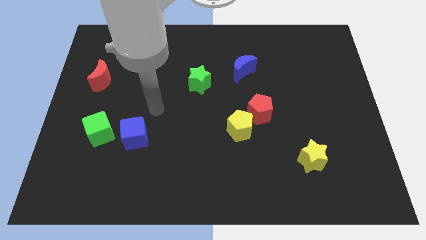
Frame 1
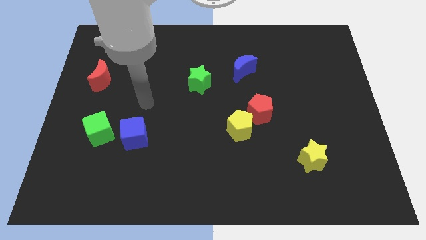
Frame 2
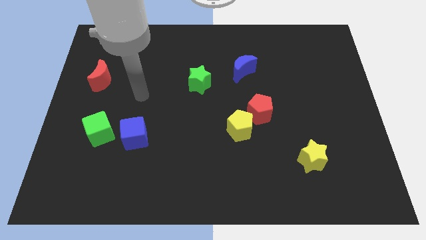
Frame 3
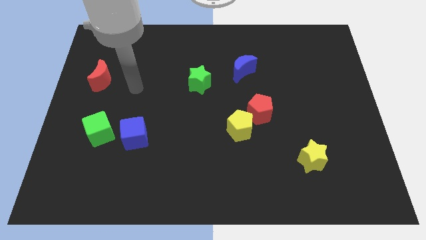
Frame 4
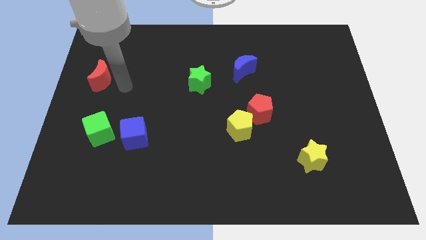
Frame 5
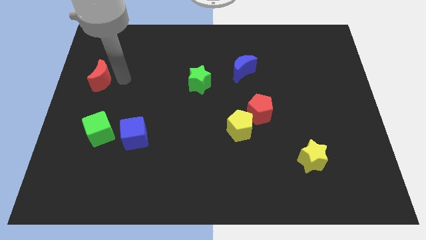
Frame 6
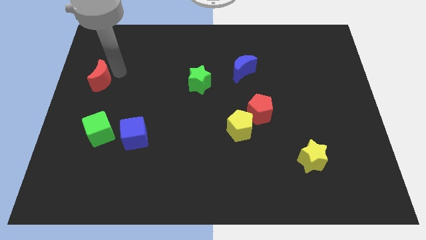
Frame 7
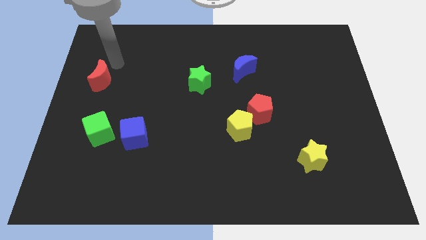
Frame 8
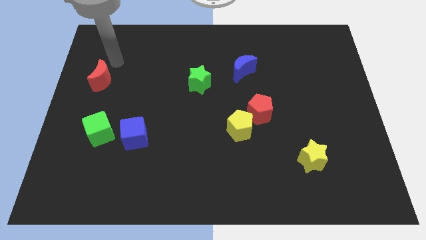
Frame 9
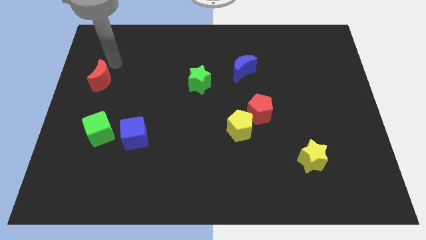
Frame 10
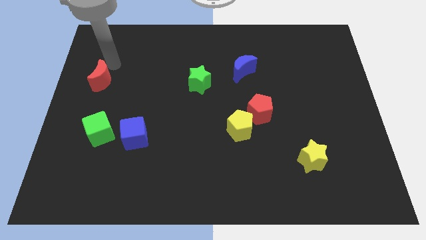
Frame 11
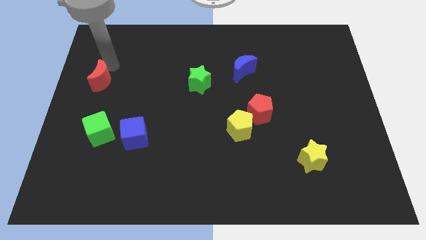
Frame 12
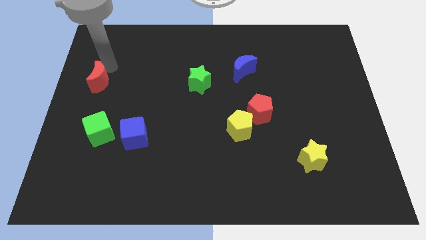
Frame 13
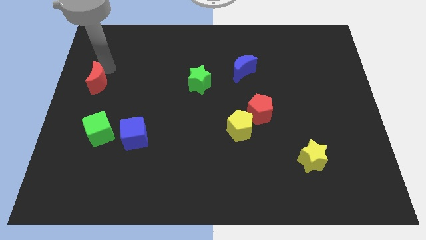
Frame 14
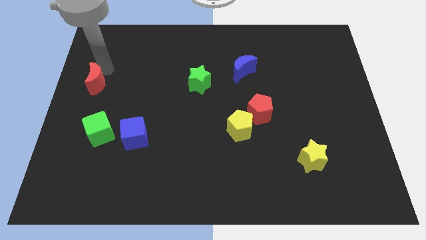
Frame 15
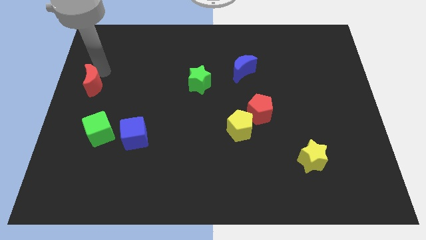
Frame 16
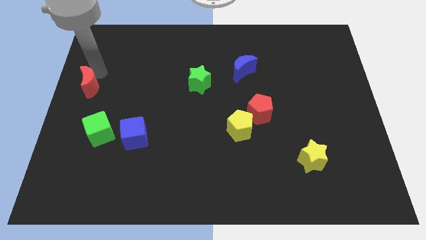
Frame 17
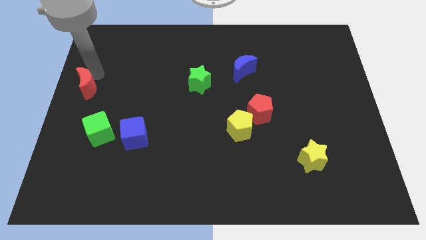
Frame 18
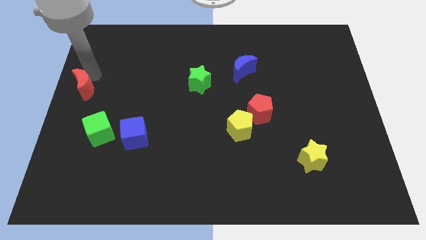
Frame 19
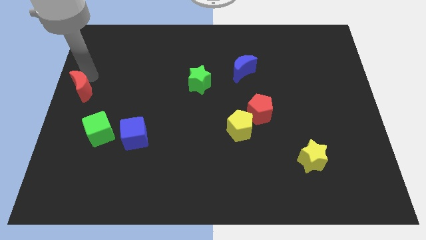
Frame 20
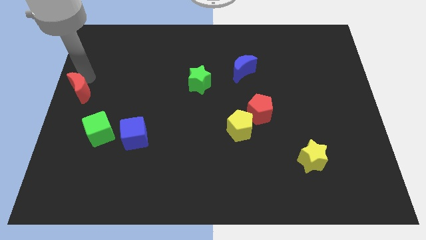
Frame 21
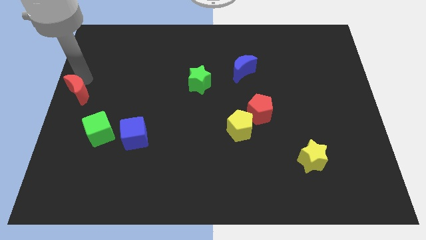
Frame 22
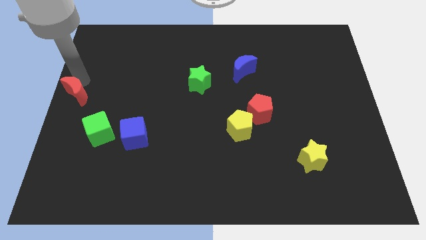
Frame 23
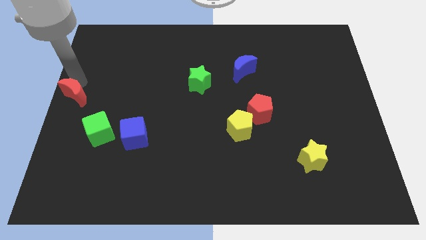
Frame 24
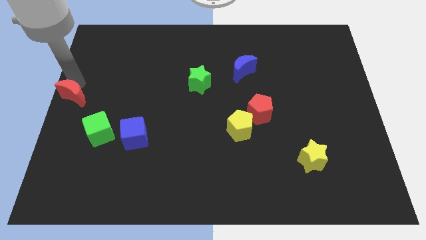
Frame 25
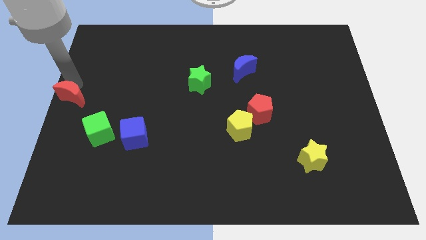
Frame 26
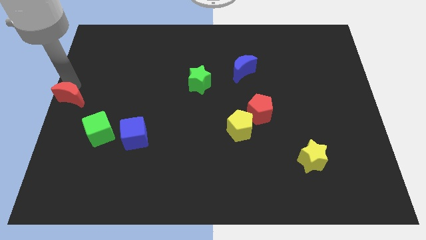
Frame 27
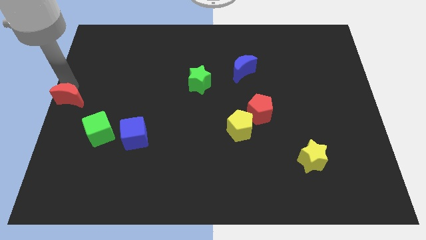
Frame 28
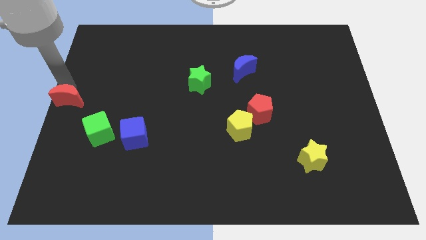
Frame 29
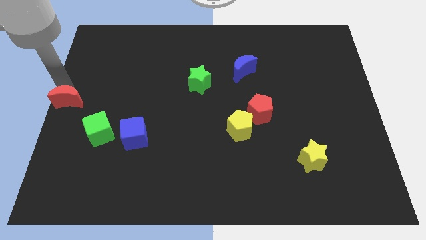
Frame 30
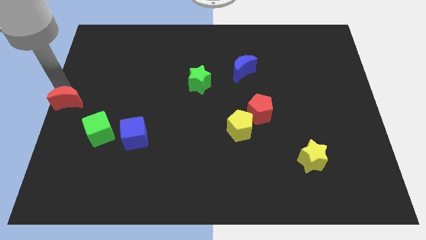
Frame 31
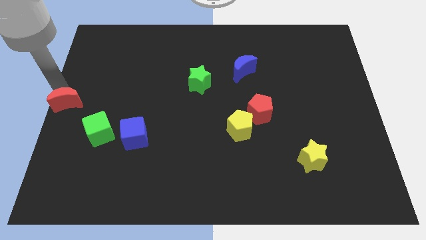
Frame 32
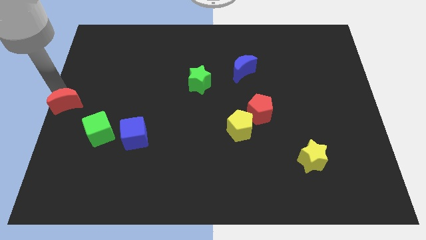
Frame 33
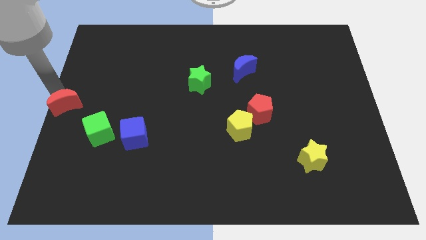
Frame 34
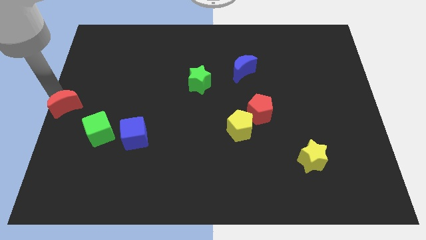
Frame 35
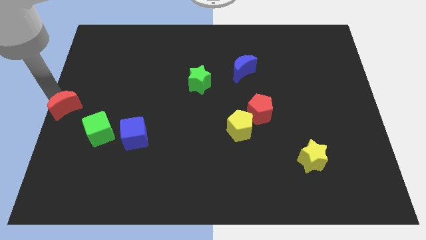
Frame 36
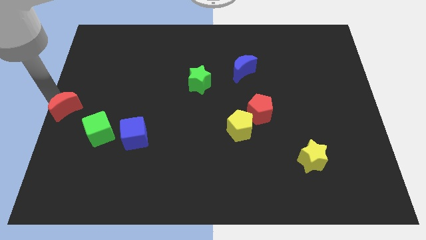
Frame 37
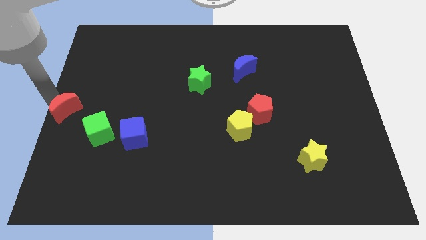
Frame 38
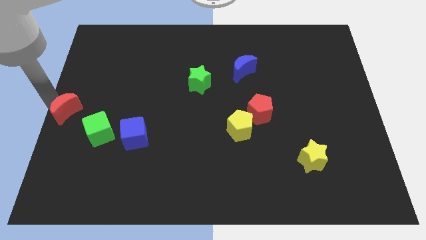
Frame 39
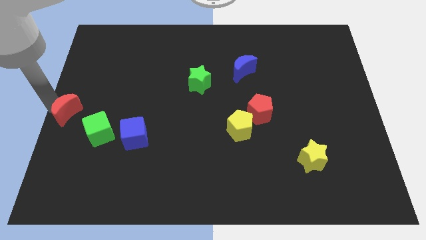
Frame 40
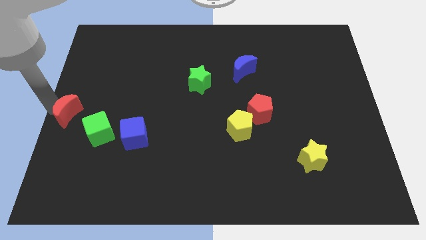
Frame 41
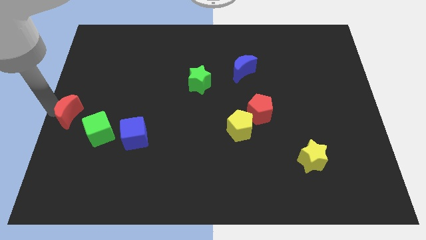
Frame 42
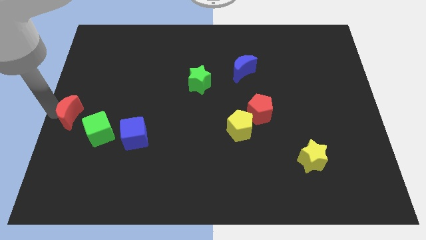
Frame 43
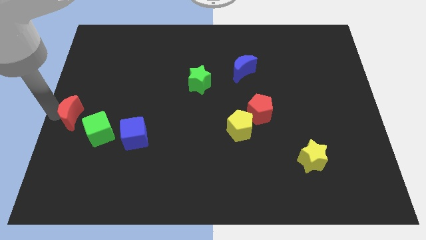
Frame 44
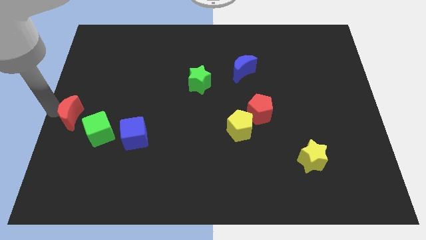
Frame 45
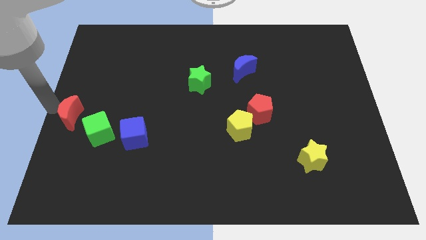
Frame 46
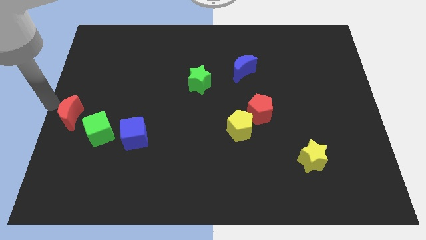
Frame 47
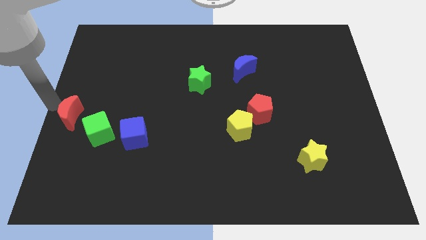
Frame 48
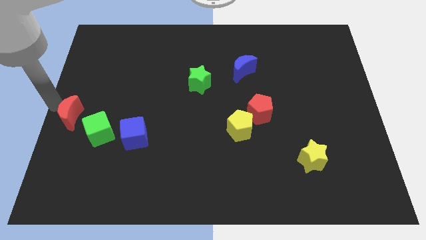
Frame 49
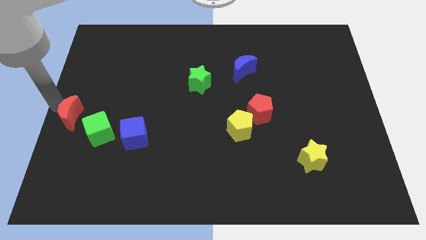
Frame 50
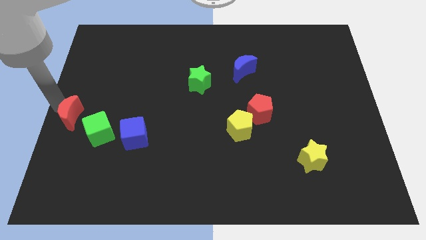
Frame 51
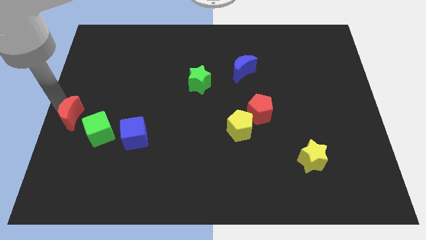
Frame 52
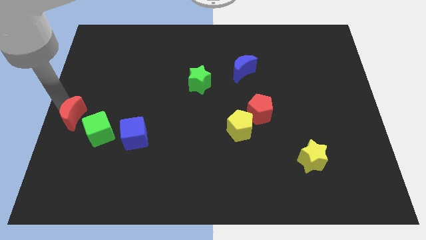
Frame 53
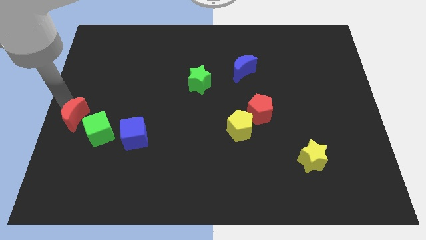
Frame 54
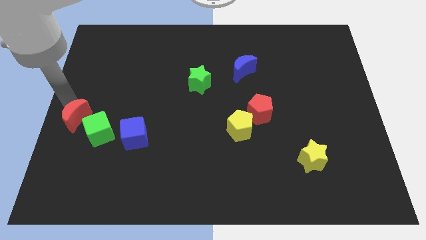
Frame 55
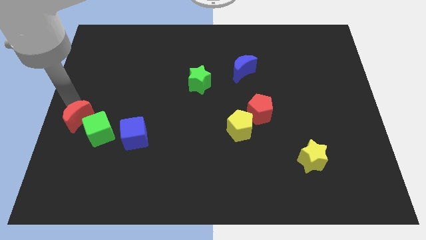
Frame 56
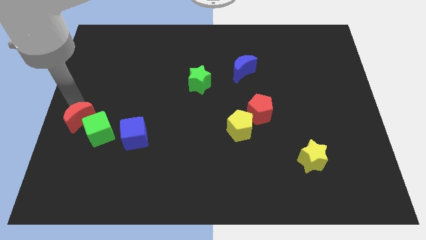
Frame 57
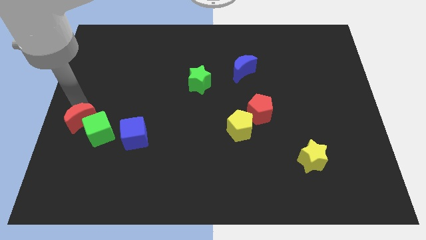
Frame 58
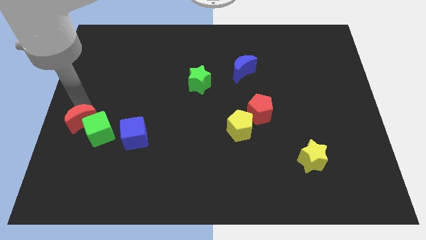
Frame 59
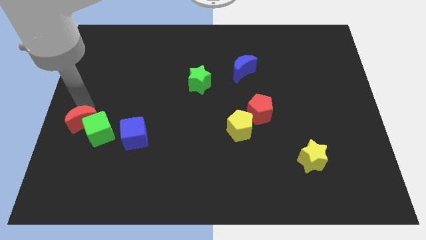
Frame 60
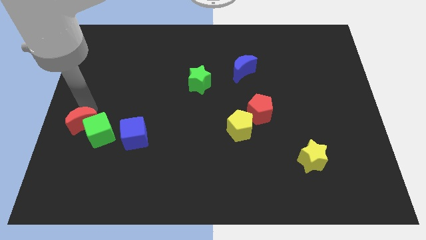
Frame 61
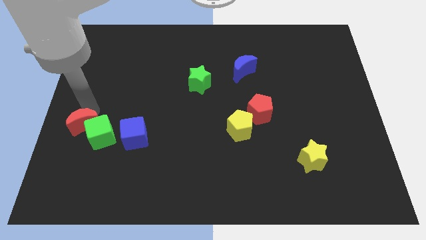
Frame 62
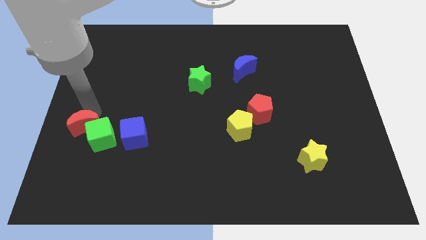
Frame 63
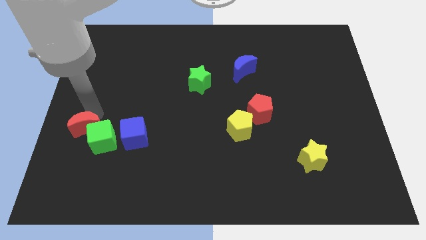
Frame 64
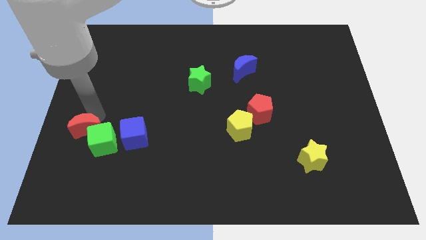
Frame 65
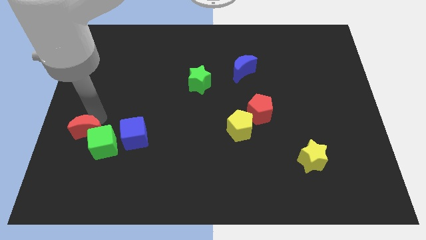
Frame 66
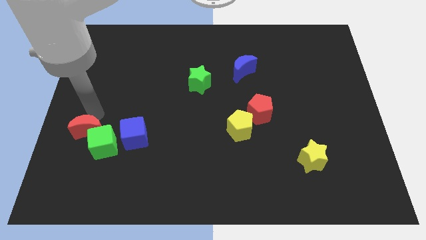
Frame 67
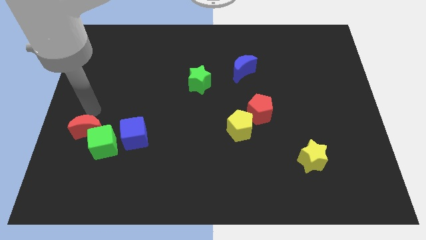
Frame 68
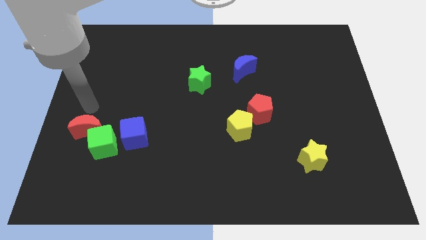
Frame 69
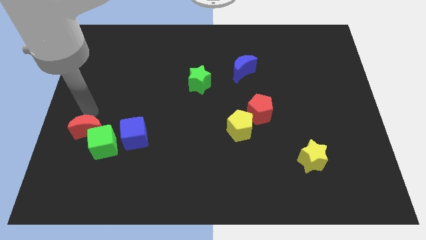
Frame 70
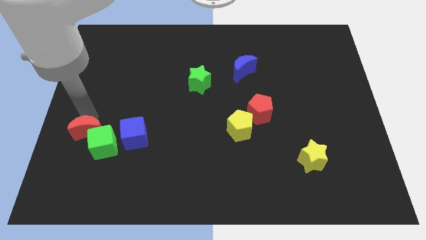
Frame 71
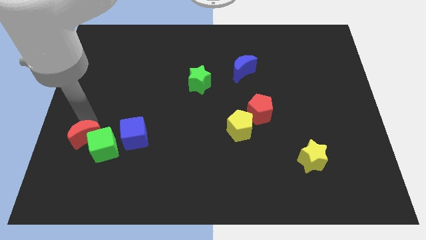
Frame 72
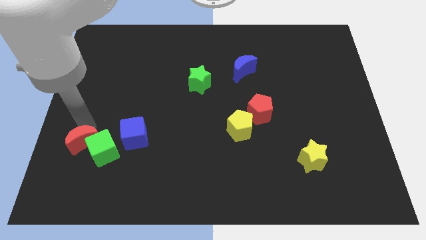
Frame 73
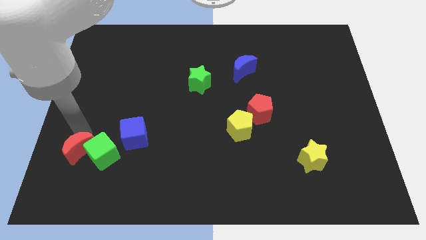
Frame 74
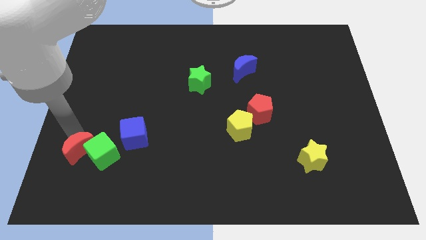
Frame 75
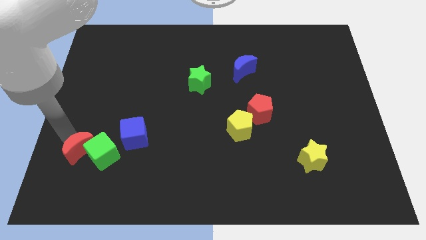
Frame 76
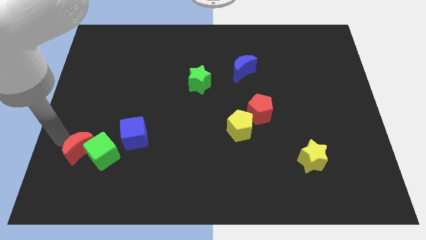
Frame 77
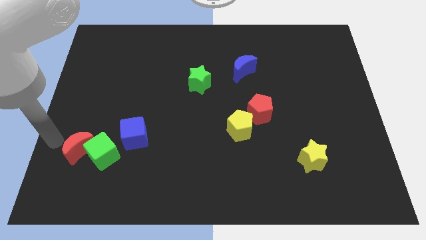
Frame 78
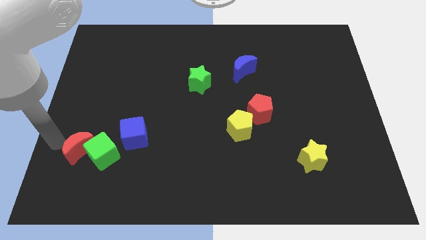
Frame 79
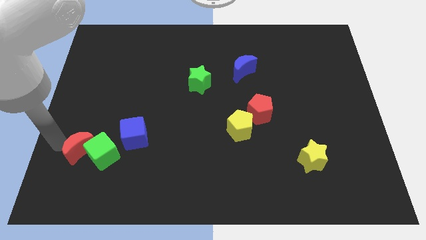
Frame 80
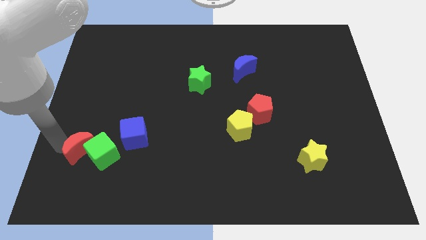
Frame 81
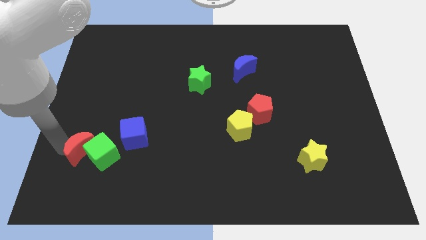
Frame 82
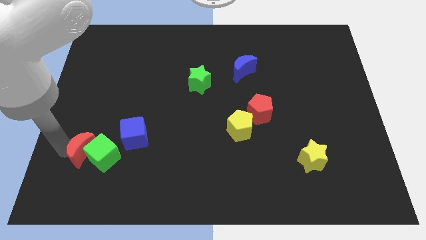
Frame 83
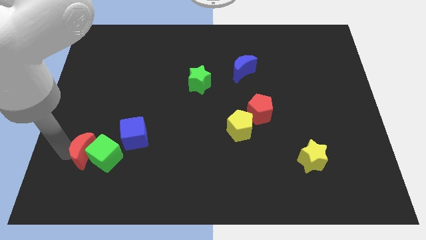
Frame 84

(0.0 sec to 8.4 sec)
push the red moon to the bottom left side of the blue cube
